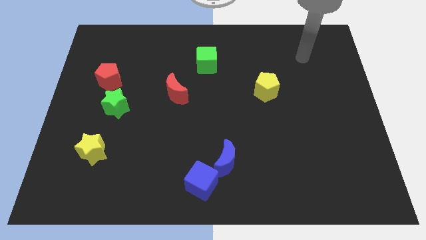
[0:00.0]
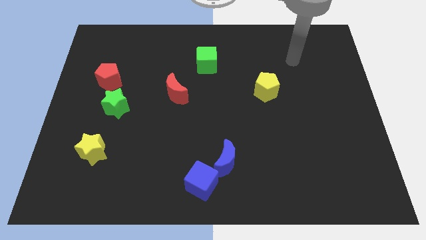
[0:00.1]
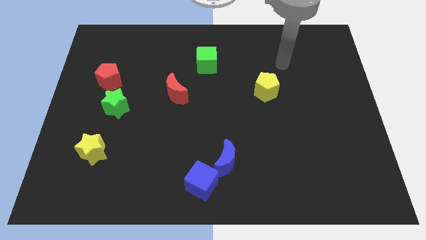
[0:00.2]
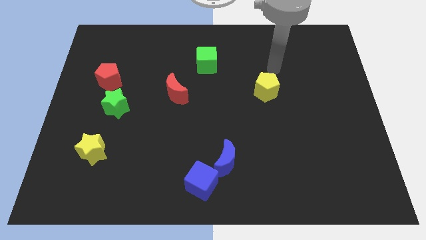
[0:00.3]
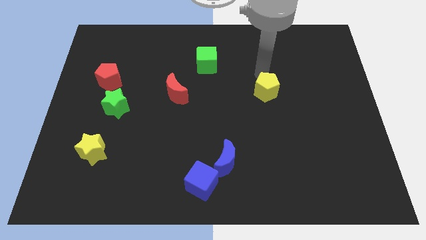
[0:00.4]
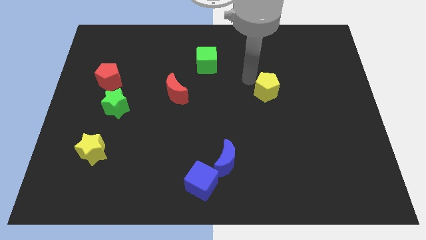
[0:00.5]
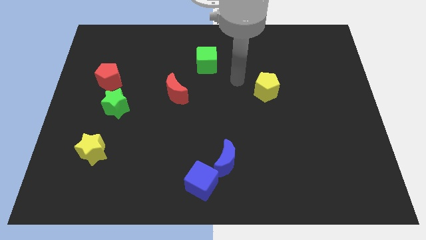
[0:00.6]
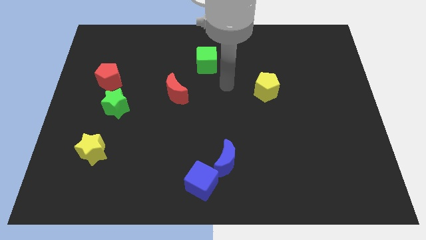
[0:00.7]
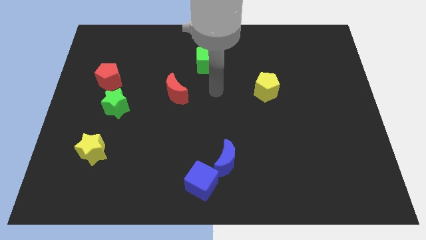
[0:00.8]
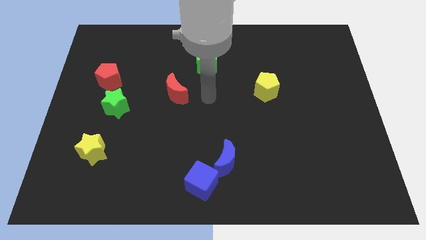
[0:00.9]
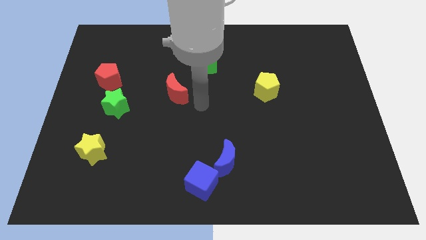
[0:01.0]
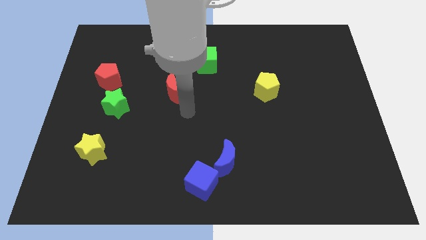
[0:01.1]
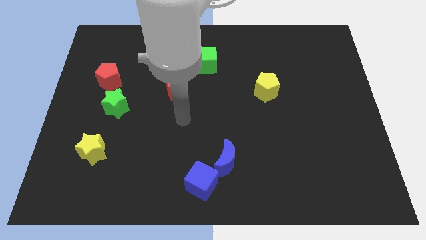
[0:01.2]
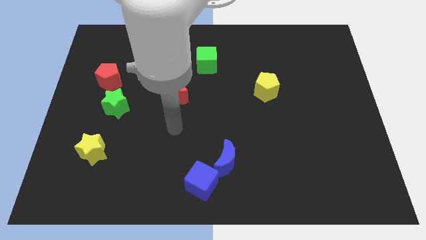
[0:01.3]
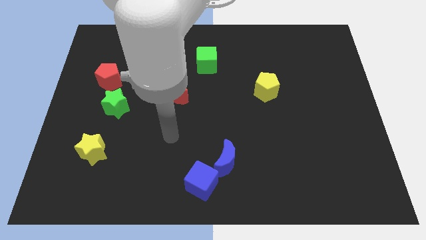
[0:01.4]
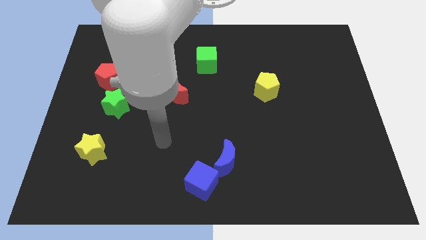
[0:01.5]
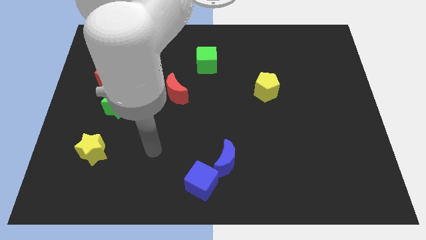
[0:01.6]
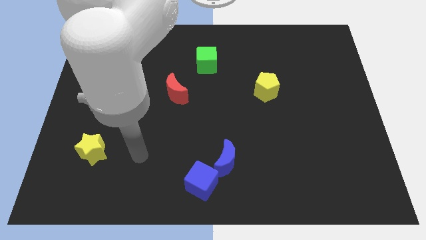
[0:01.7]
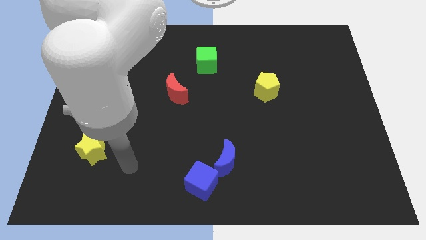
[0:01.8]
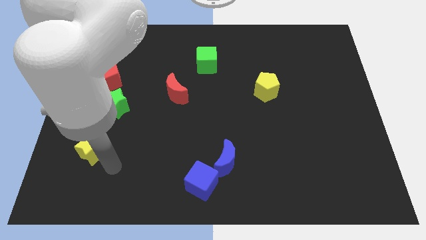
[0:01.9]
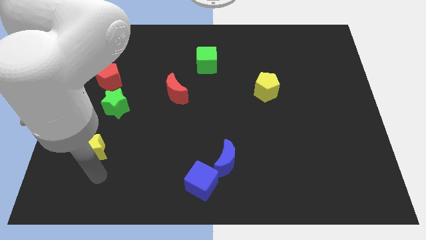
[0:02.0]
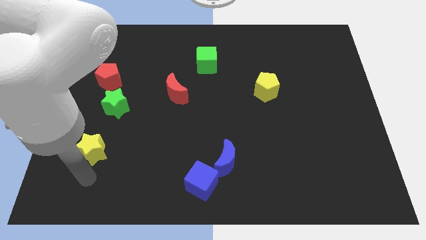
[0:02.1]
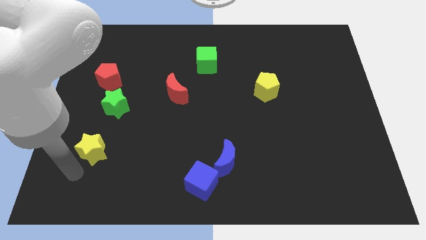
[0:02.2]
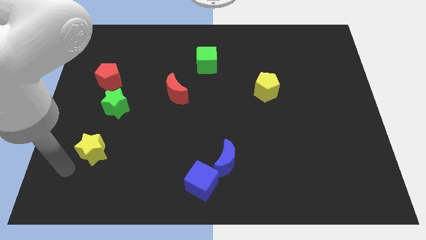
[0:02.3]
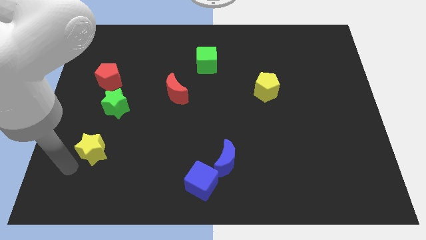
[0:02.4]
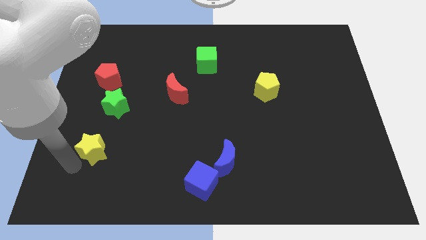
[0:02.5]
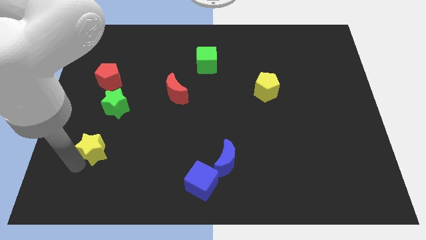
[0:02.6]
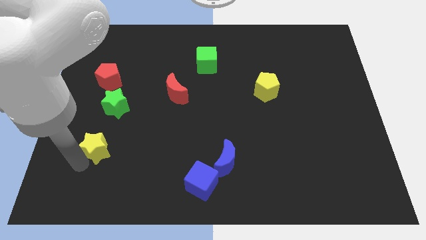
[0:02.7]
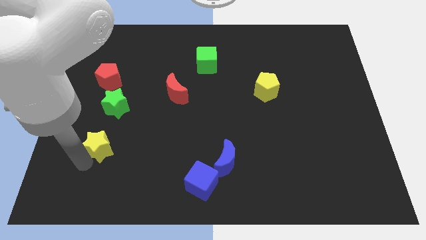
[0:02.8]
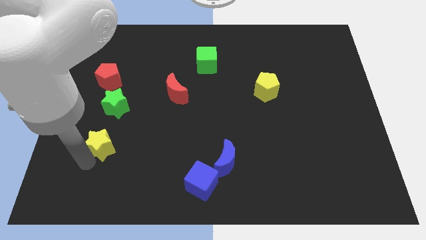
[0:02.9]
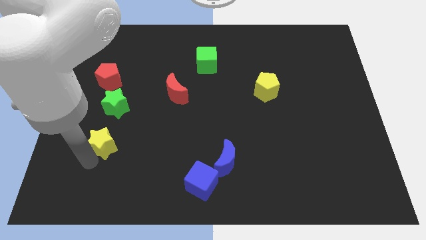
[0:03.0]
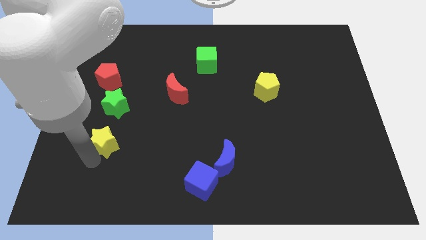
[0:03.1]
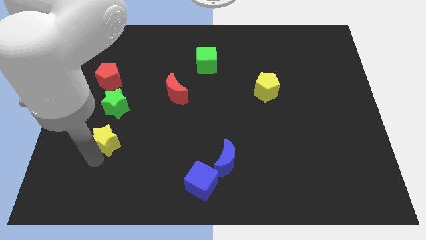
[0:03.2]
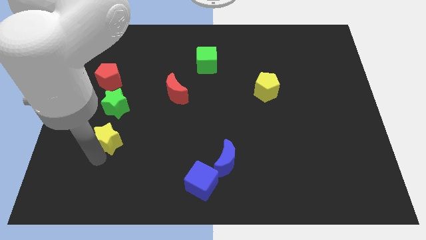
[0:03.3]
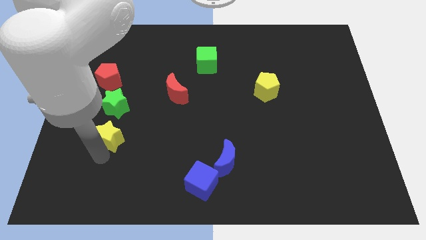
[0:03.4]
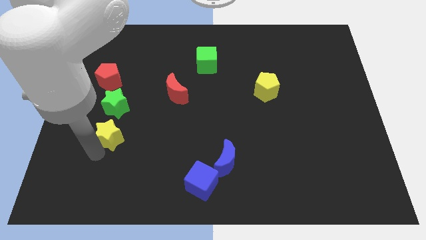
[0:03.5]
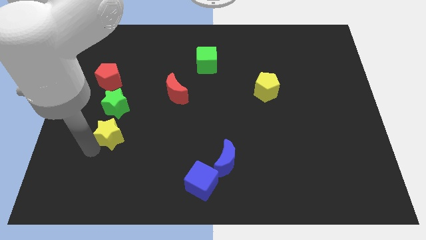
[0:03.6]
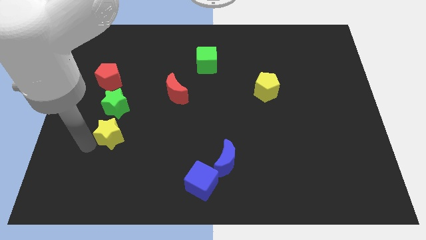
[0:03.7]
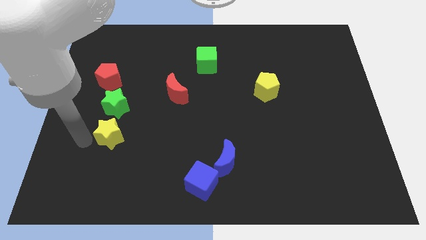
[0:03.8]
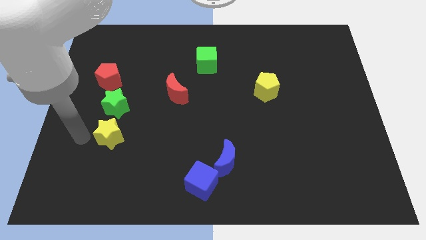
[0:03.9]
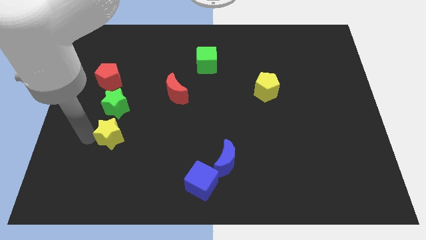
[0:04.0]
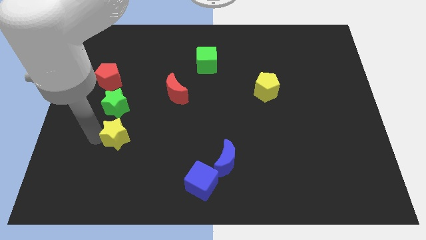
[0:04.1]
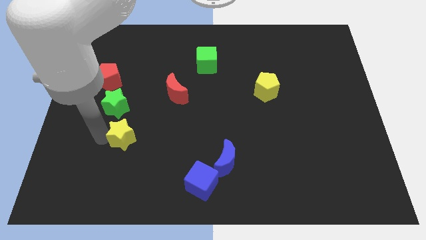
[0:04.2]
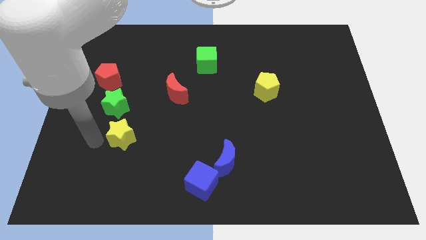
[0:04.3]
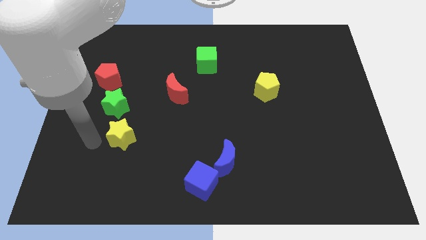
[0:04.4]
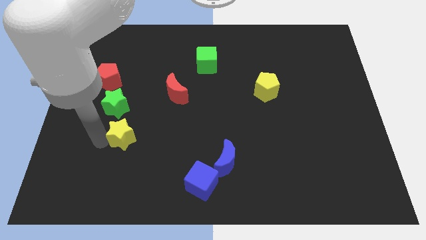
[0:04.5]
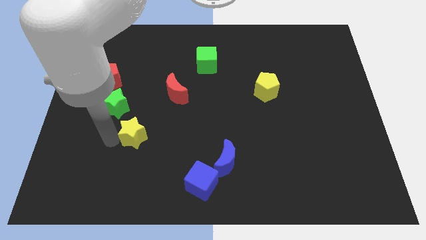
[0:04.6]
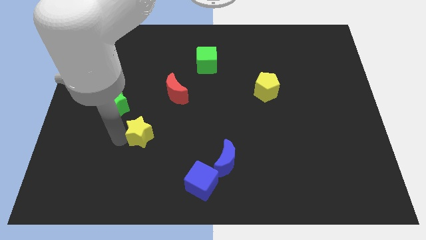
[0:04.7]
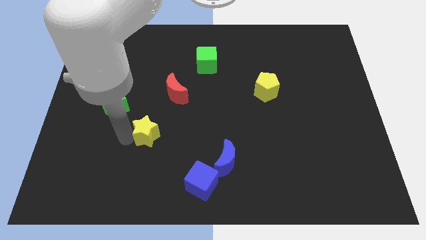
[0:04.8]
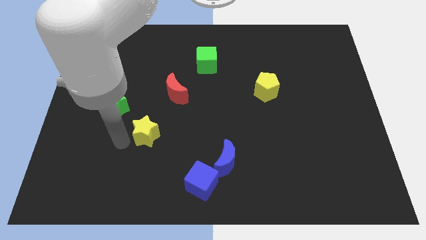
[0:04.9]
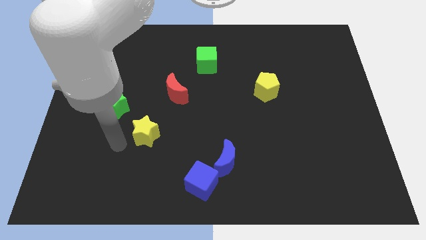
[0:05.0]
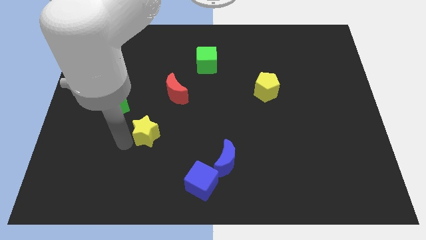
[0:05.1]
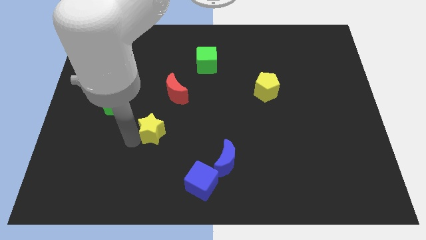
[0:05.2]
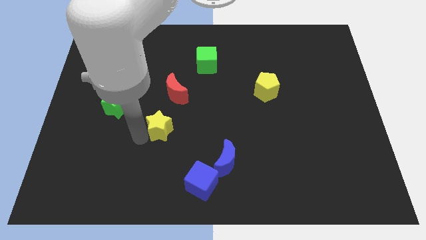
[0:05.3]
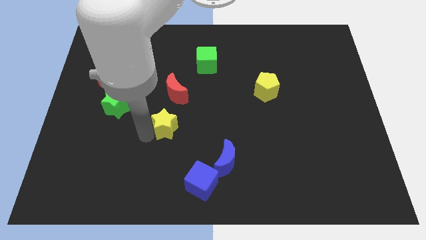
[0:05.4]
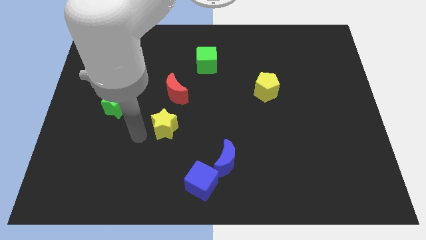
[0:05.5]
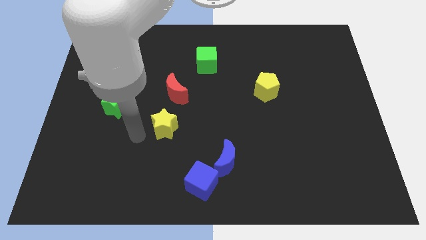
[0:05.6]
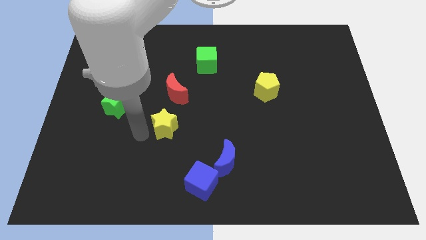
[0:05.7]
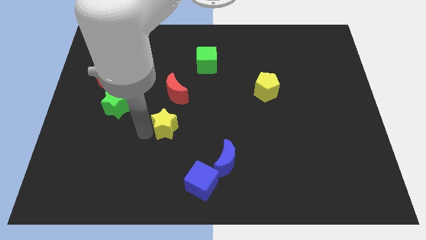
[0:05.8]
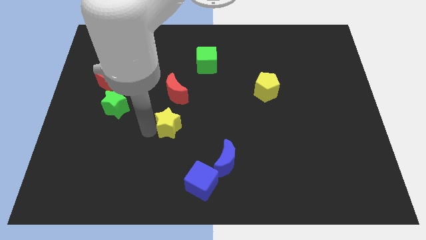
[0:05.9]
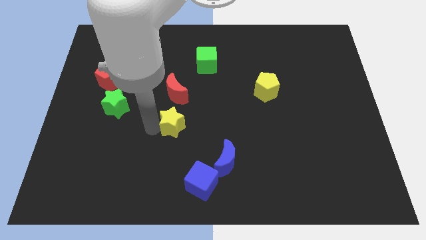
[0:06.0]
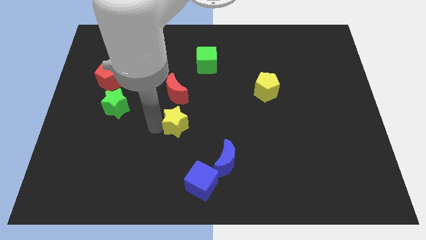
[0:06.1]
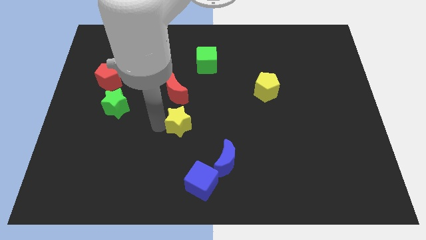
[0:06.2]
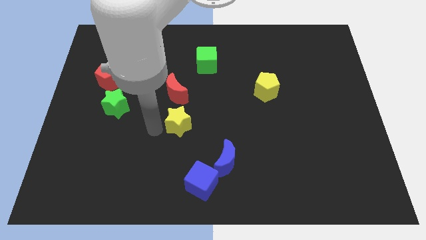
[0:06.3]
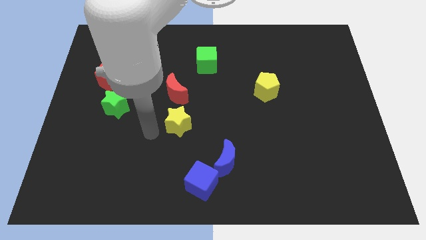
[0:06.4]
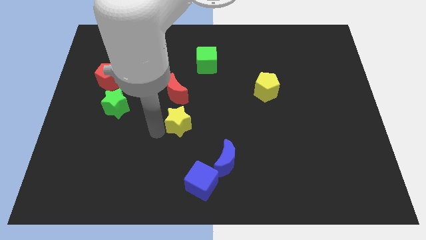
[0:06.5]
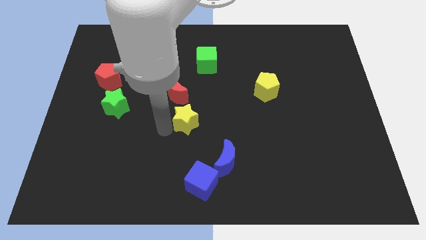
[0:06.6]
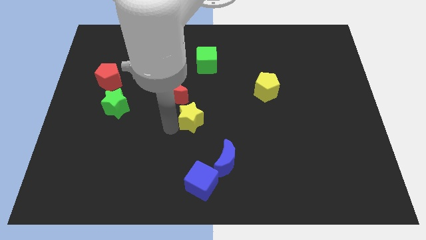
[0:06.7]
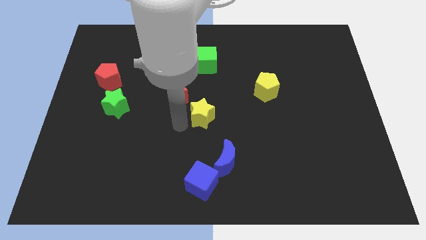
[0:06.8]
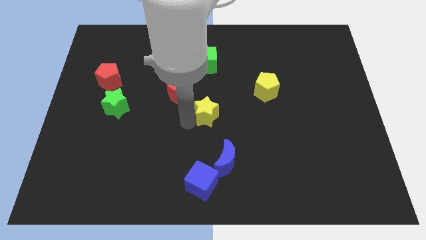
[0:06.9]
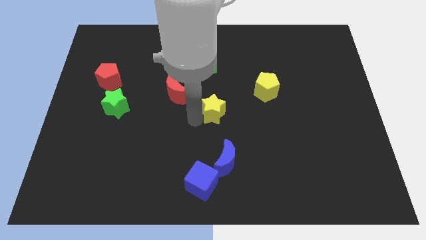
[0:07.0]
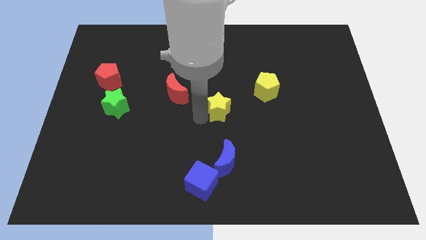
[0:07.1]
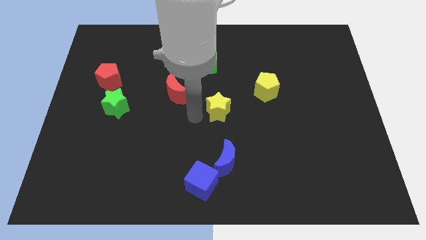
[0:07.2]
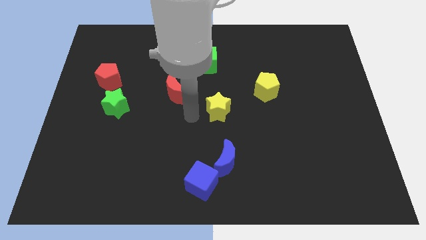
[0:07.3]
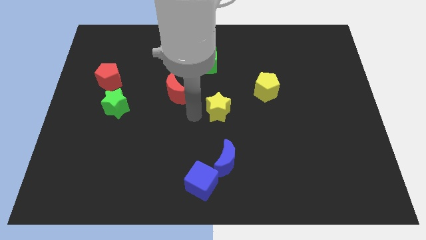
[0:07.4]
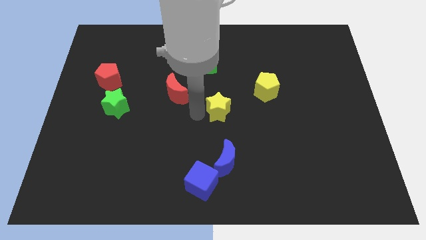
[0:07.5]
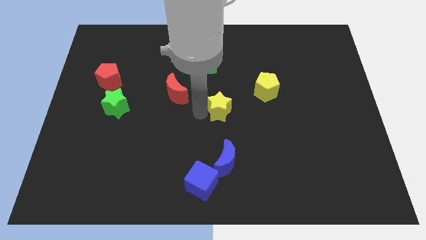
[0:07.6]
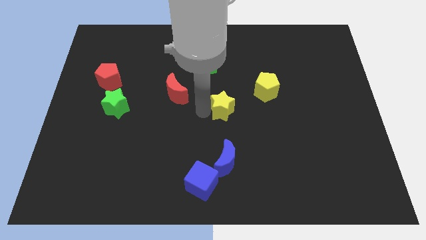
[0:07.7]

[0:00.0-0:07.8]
slide the yellow star to the bottom left side of the yellow pentagon

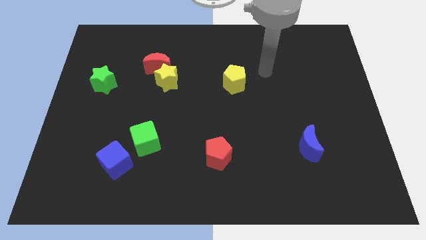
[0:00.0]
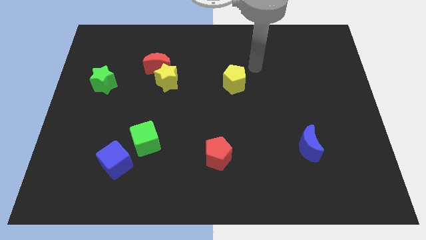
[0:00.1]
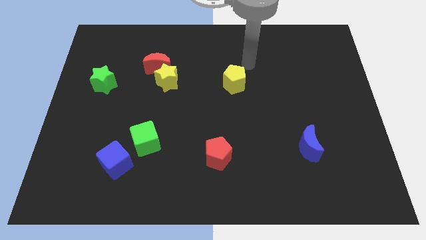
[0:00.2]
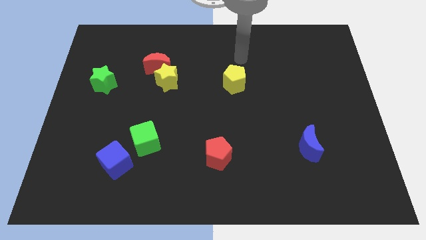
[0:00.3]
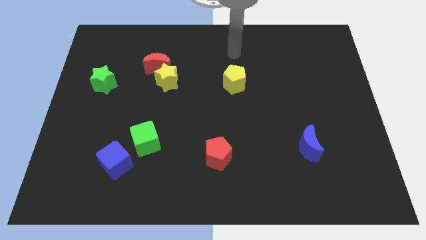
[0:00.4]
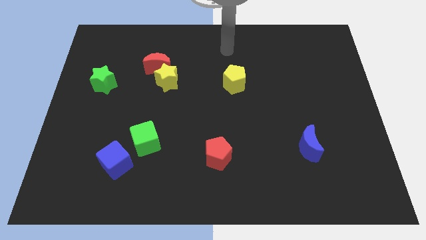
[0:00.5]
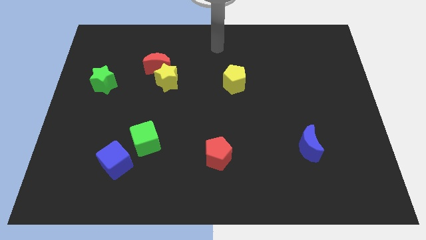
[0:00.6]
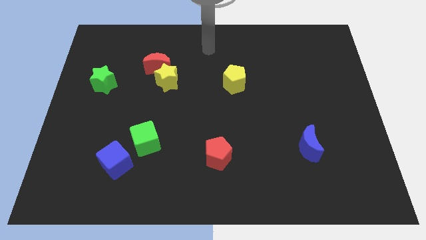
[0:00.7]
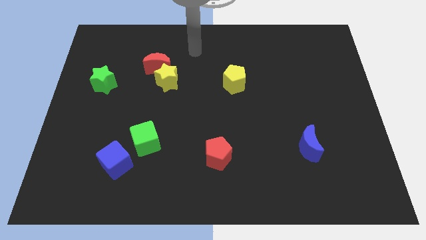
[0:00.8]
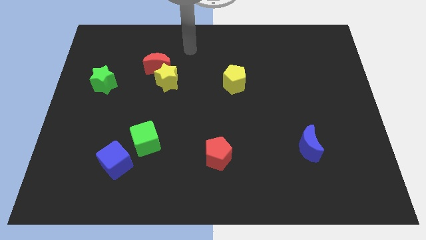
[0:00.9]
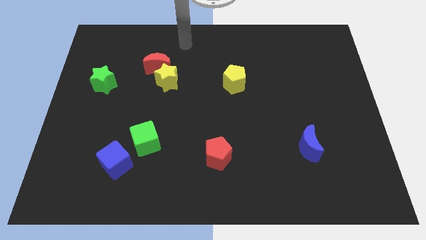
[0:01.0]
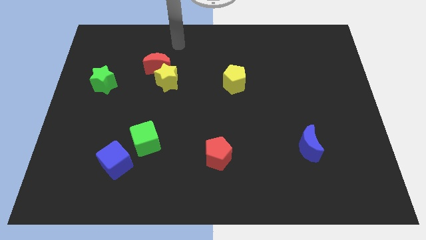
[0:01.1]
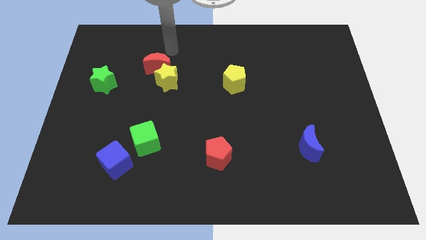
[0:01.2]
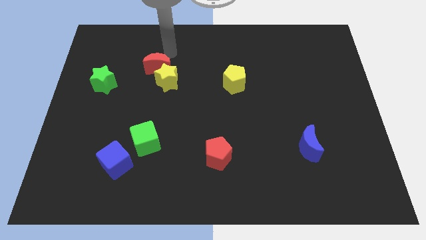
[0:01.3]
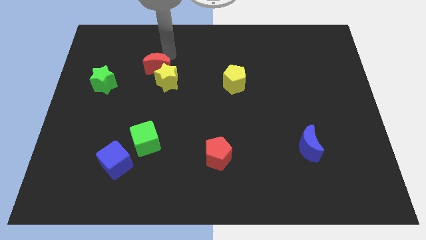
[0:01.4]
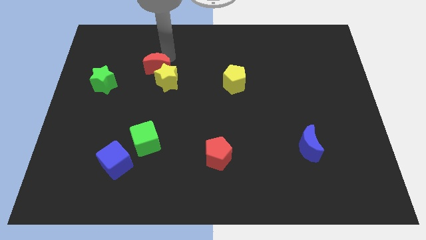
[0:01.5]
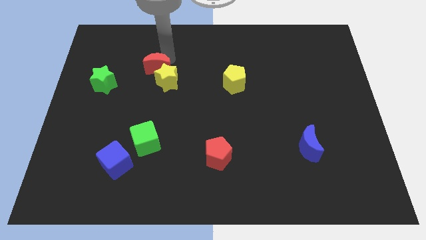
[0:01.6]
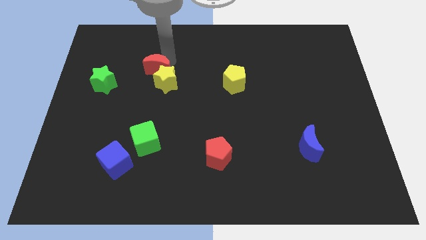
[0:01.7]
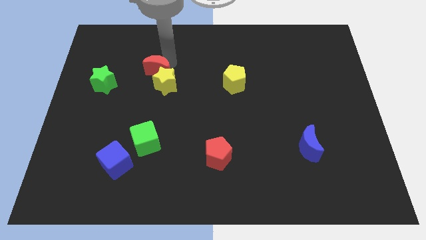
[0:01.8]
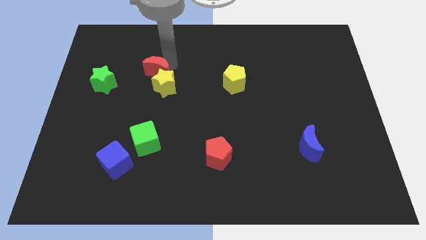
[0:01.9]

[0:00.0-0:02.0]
put the red moon right of the green star
